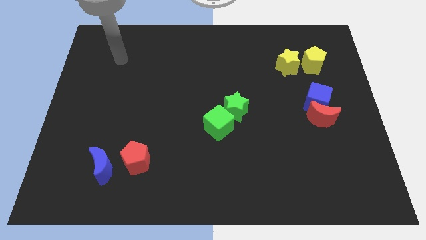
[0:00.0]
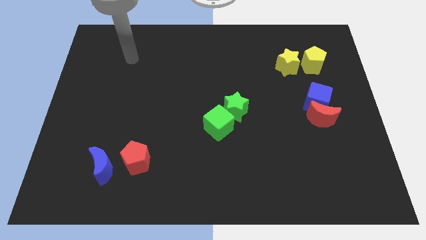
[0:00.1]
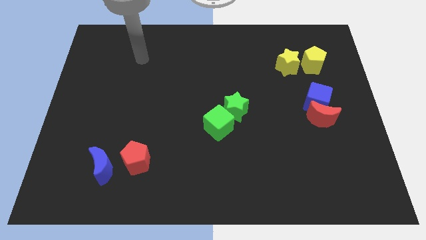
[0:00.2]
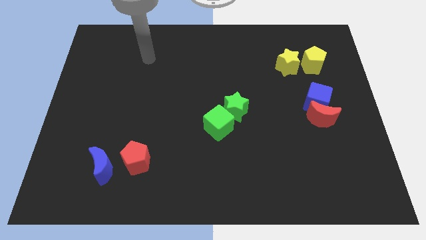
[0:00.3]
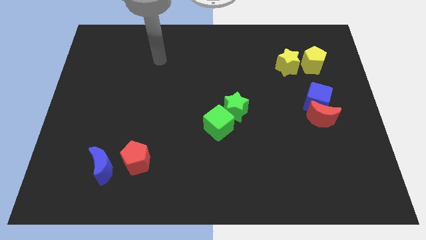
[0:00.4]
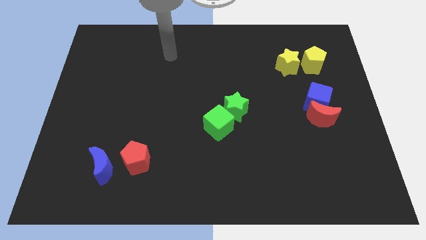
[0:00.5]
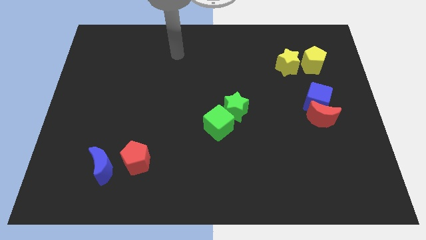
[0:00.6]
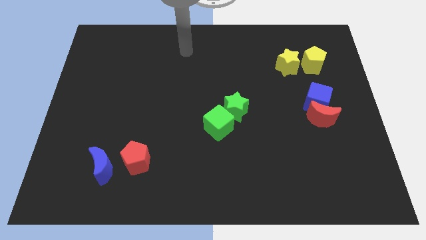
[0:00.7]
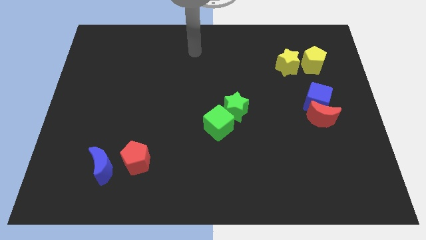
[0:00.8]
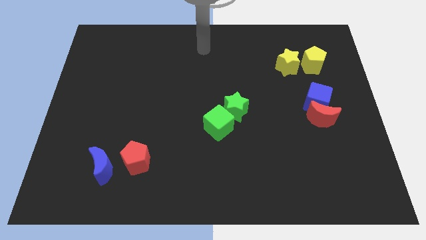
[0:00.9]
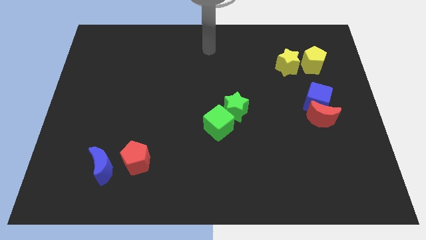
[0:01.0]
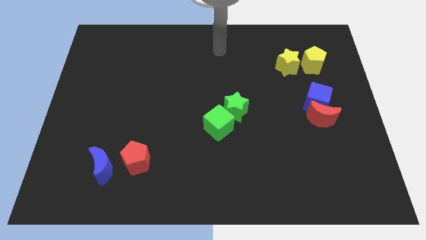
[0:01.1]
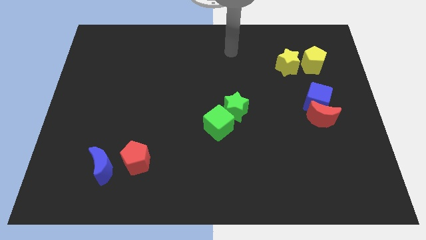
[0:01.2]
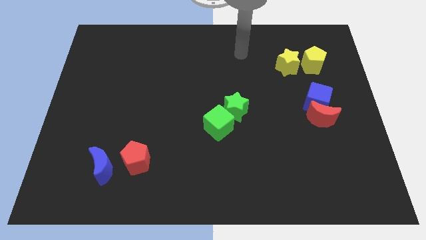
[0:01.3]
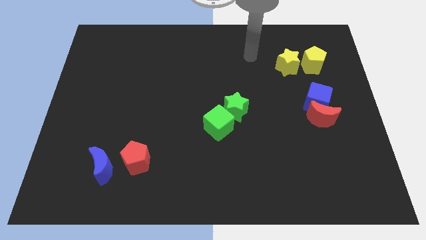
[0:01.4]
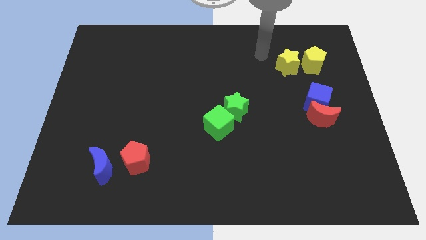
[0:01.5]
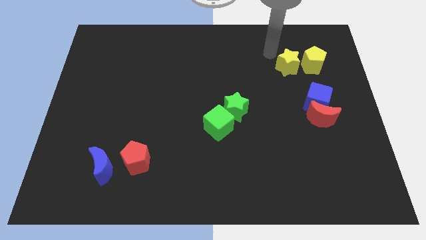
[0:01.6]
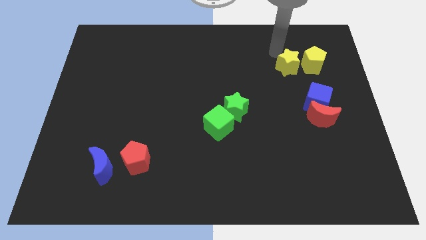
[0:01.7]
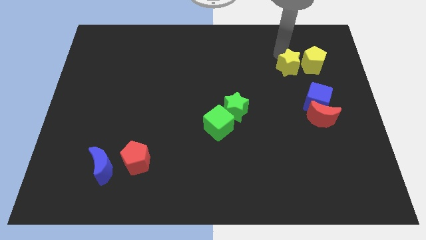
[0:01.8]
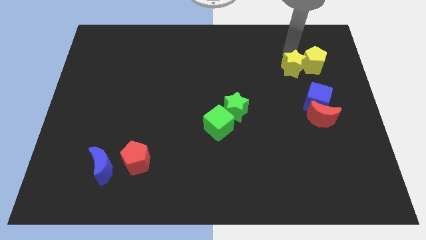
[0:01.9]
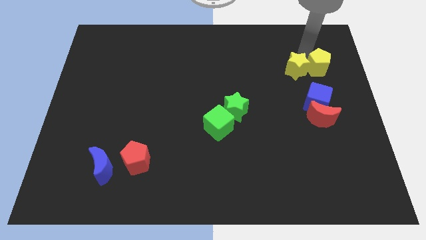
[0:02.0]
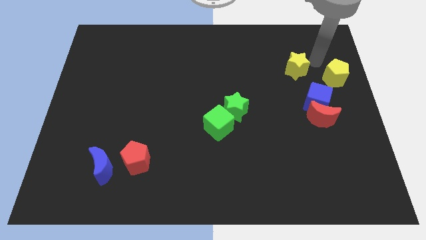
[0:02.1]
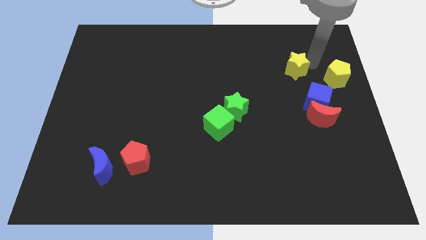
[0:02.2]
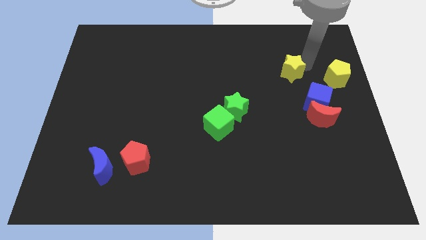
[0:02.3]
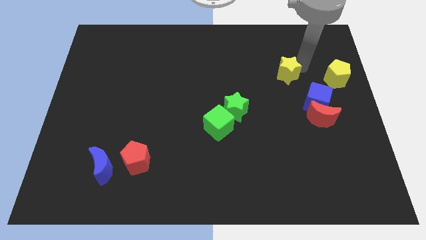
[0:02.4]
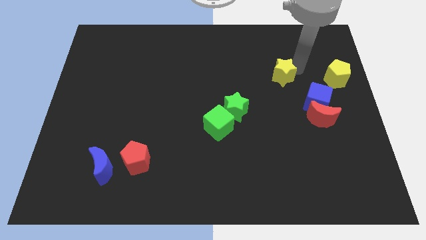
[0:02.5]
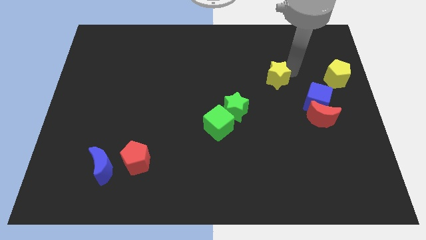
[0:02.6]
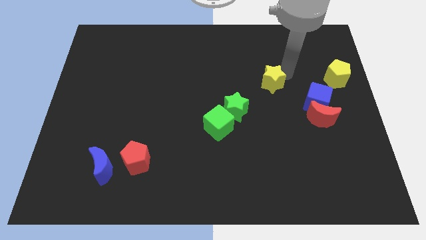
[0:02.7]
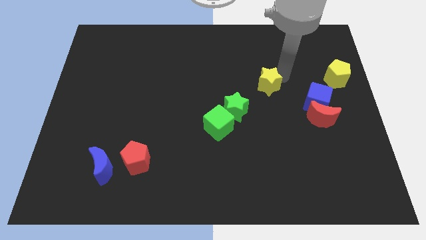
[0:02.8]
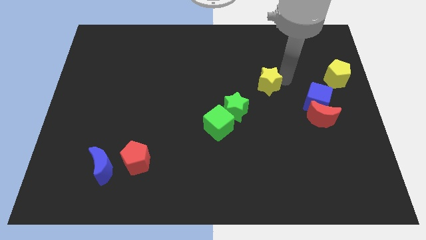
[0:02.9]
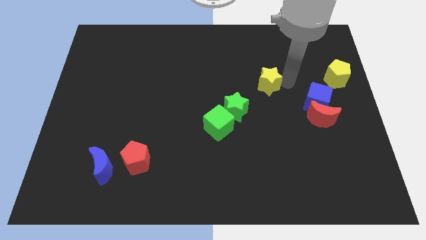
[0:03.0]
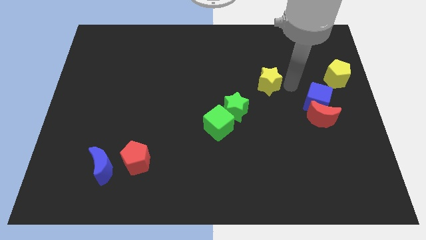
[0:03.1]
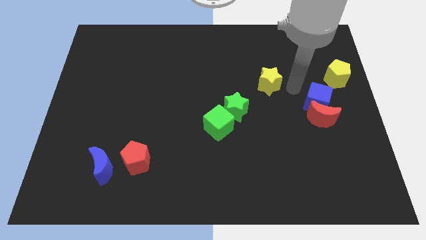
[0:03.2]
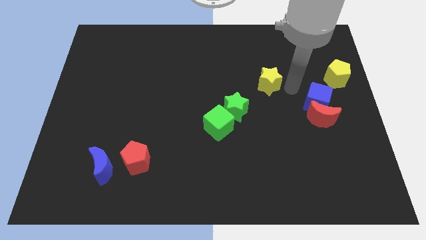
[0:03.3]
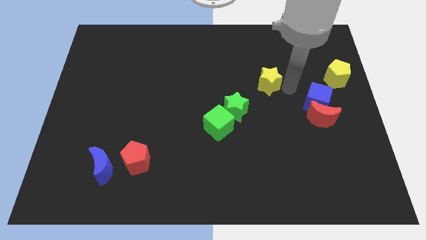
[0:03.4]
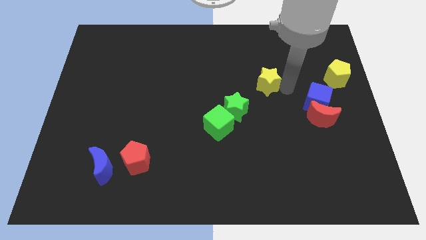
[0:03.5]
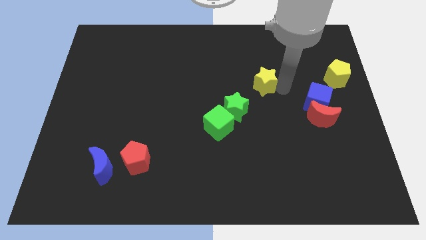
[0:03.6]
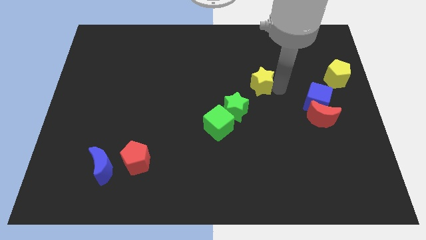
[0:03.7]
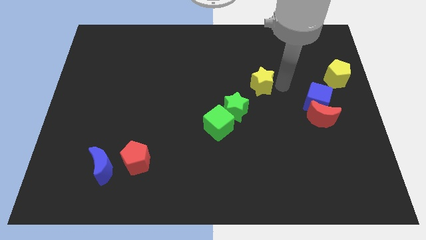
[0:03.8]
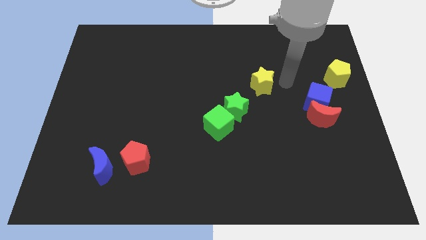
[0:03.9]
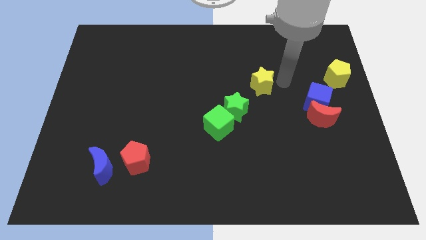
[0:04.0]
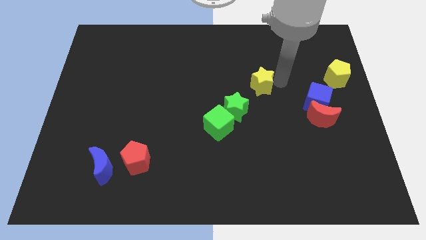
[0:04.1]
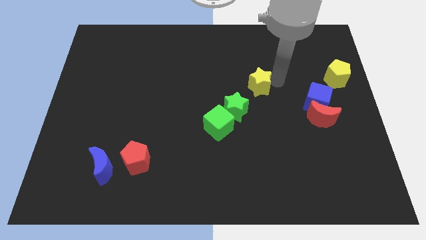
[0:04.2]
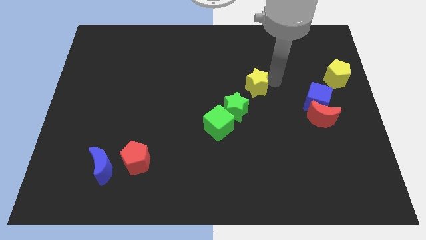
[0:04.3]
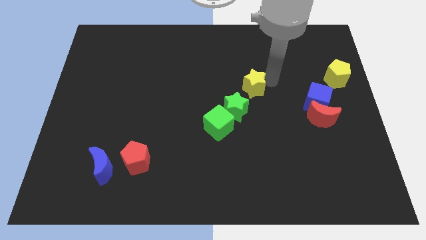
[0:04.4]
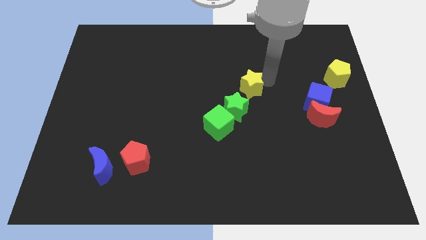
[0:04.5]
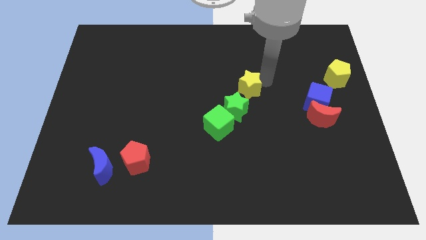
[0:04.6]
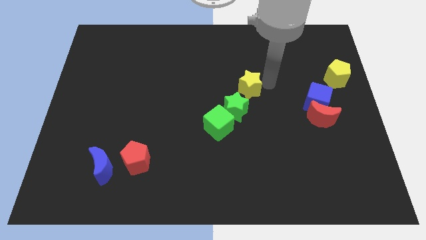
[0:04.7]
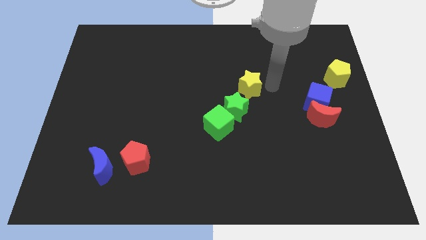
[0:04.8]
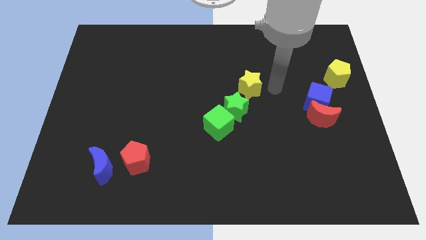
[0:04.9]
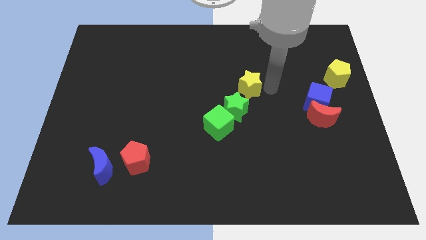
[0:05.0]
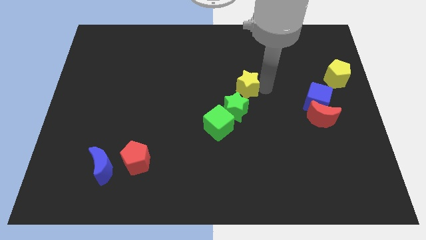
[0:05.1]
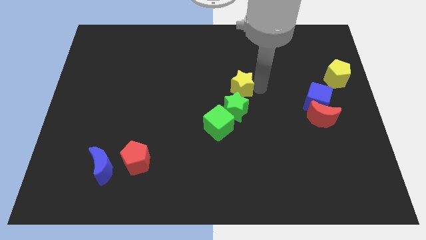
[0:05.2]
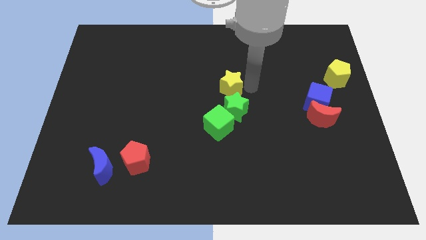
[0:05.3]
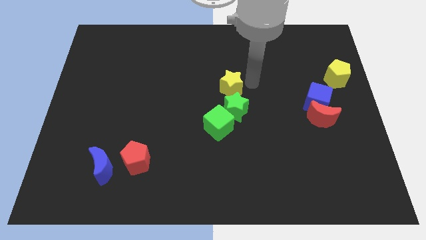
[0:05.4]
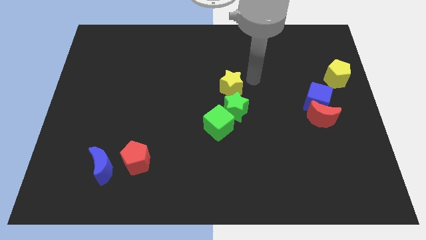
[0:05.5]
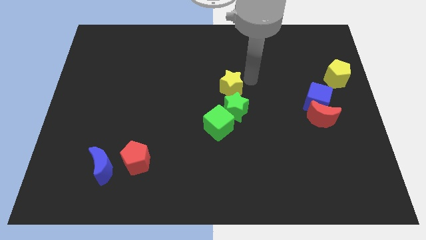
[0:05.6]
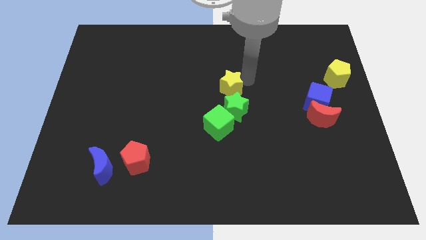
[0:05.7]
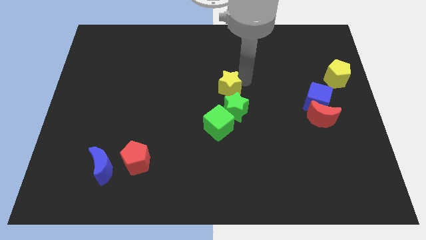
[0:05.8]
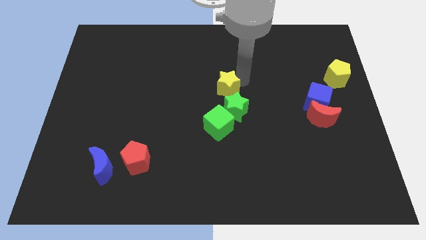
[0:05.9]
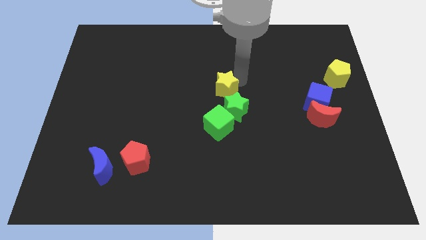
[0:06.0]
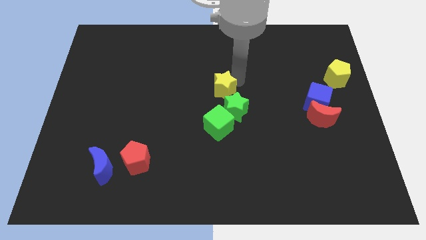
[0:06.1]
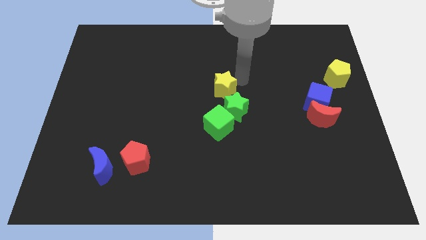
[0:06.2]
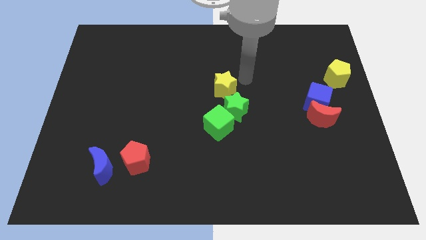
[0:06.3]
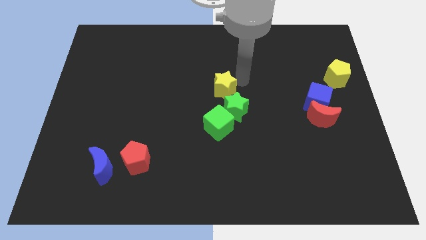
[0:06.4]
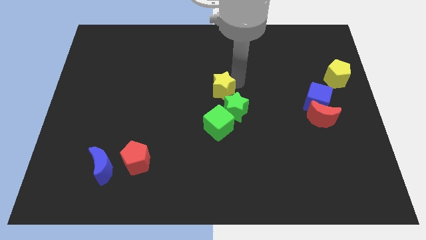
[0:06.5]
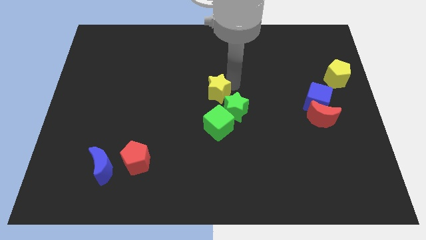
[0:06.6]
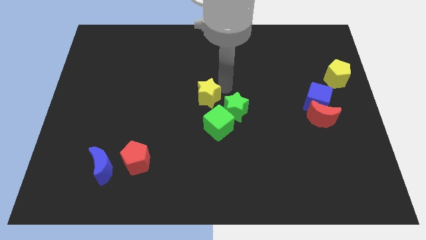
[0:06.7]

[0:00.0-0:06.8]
slide the yellow star just left of the green star

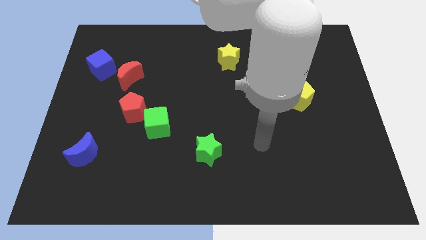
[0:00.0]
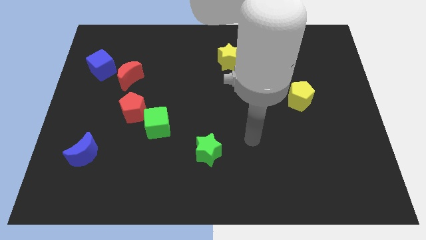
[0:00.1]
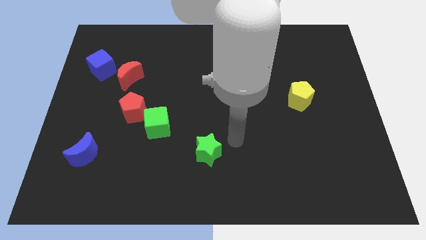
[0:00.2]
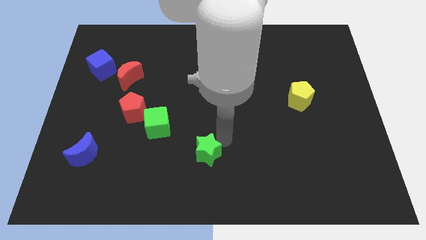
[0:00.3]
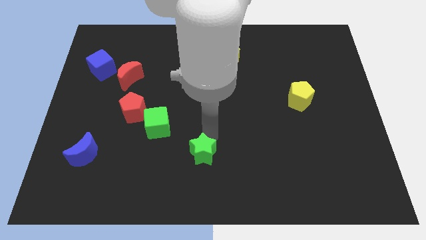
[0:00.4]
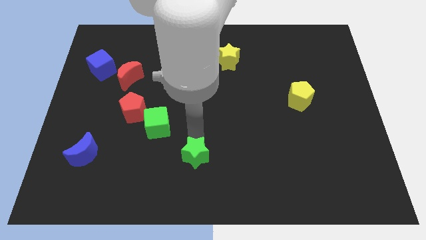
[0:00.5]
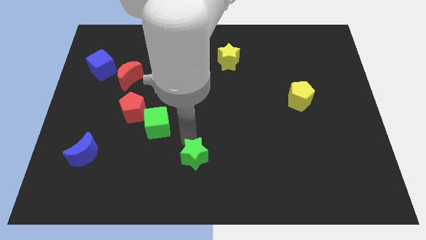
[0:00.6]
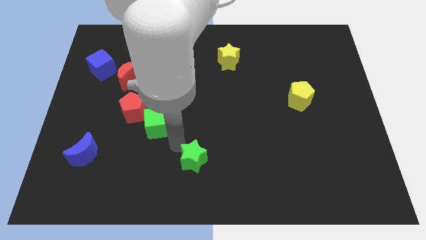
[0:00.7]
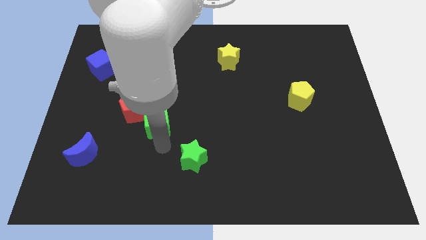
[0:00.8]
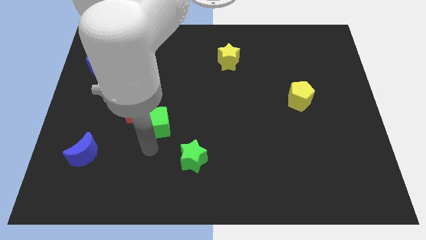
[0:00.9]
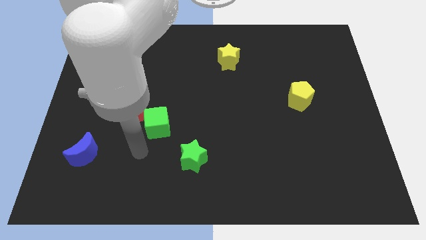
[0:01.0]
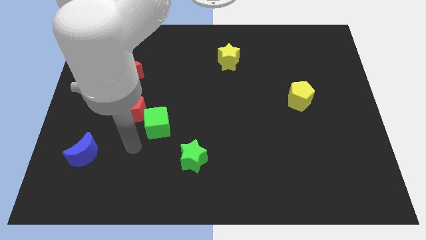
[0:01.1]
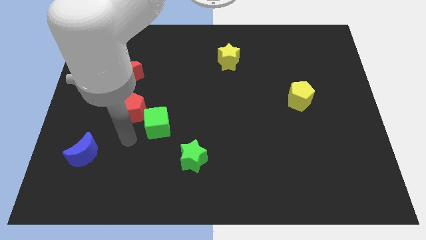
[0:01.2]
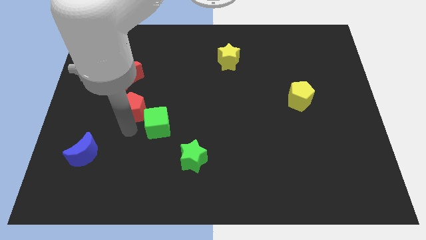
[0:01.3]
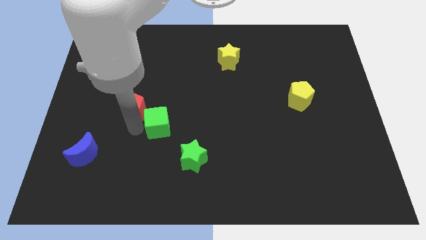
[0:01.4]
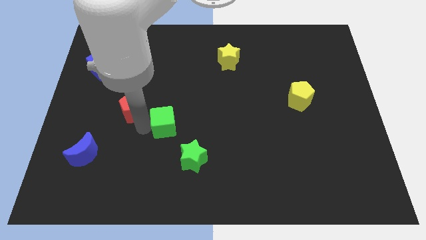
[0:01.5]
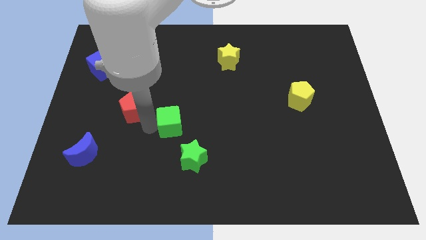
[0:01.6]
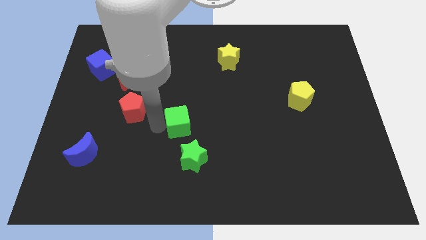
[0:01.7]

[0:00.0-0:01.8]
push the green cube to the top of the green star
